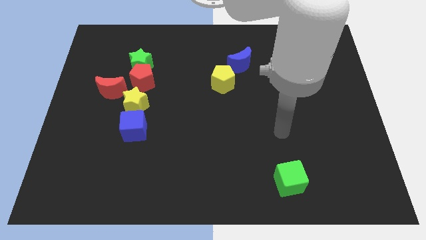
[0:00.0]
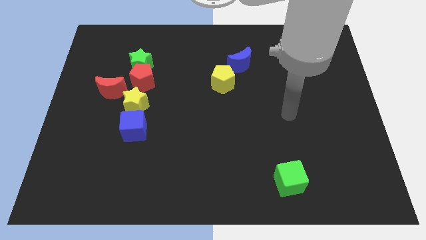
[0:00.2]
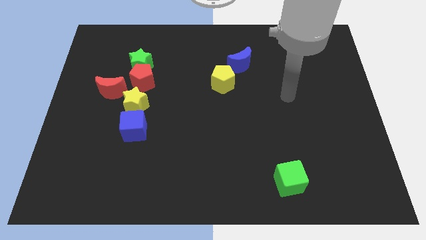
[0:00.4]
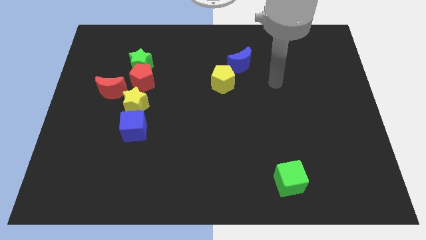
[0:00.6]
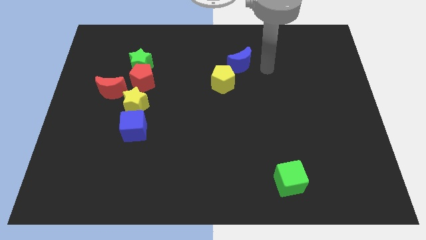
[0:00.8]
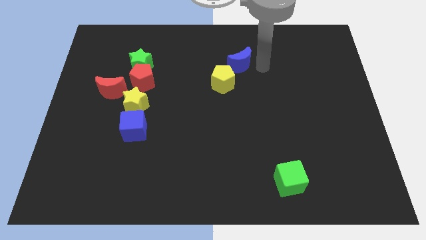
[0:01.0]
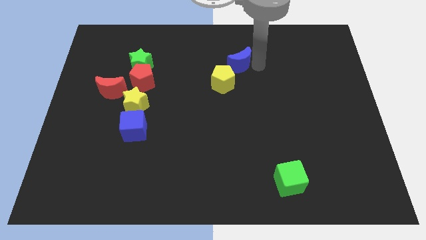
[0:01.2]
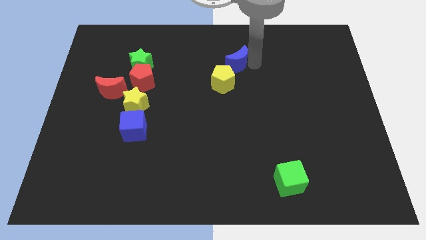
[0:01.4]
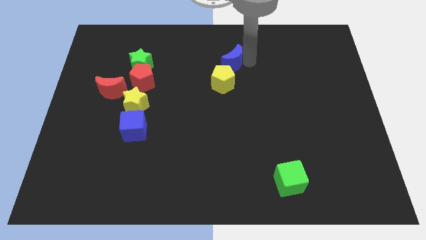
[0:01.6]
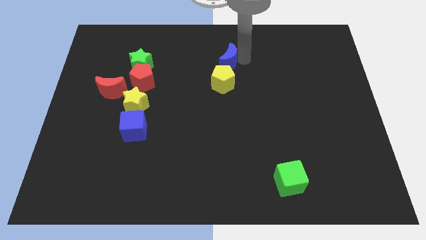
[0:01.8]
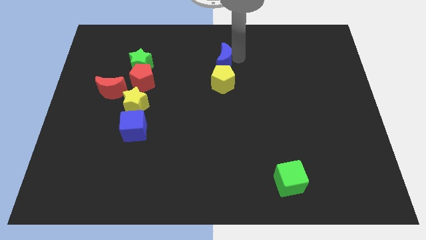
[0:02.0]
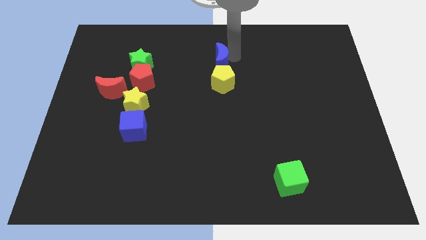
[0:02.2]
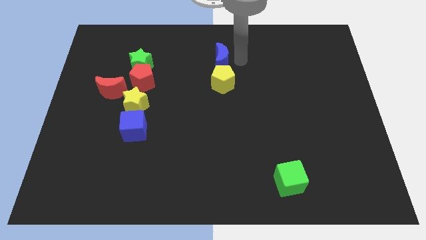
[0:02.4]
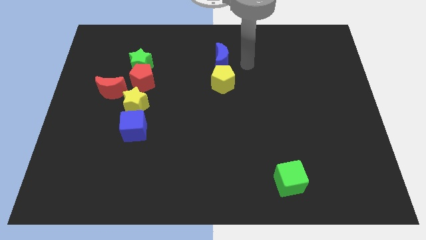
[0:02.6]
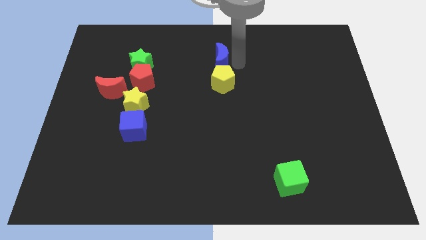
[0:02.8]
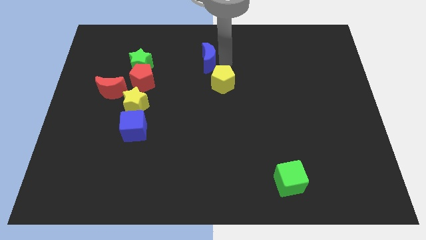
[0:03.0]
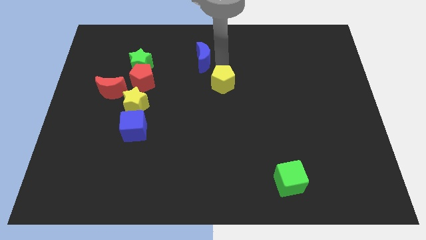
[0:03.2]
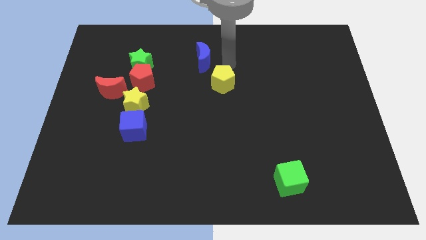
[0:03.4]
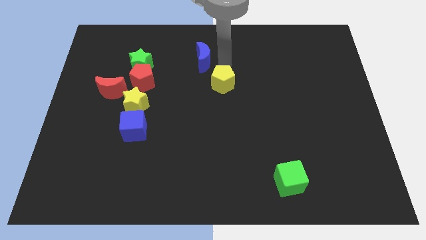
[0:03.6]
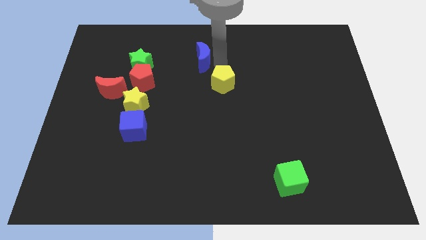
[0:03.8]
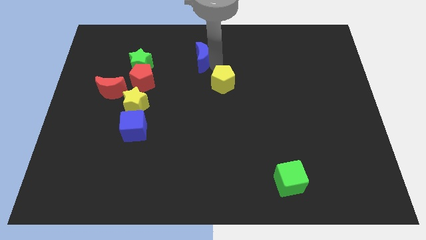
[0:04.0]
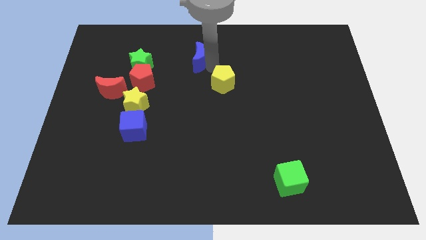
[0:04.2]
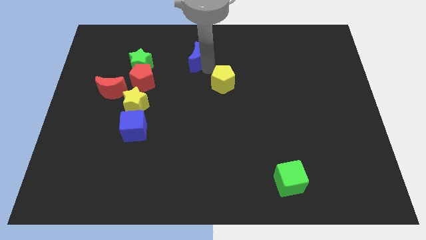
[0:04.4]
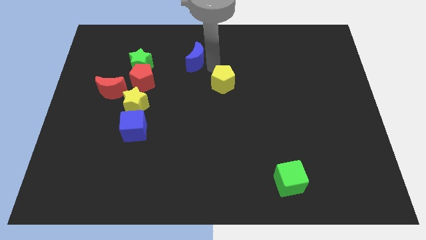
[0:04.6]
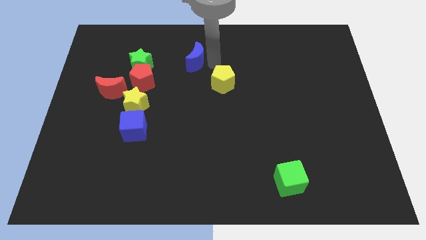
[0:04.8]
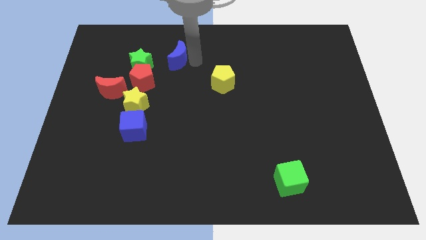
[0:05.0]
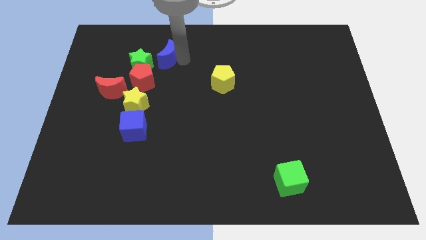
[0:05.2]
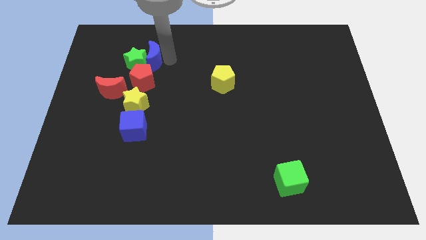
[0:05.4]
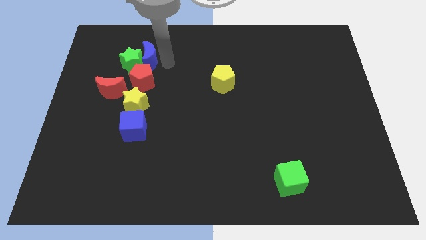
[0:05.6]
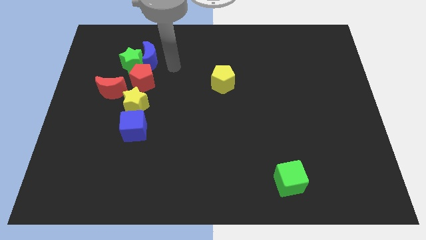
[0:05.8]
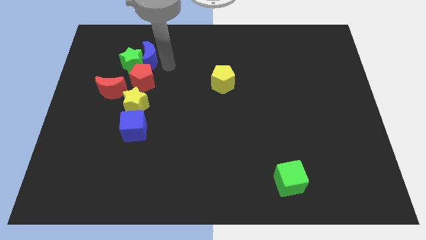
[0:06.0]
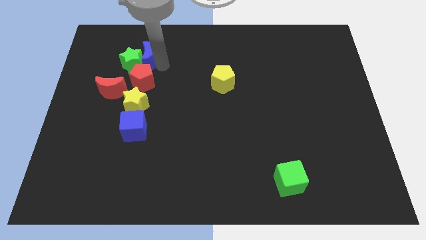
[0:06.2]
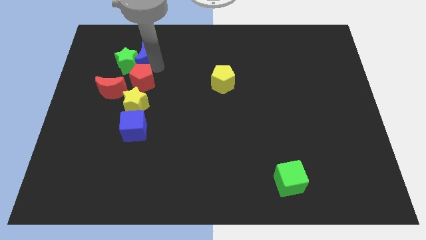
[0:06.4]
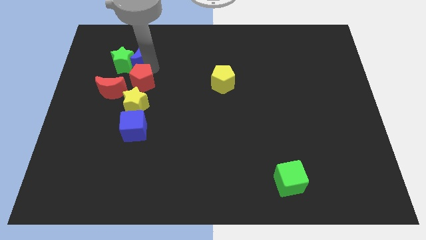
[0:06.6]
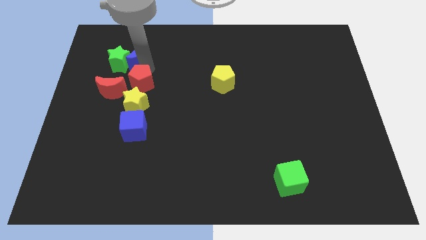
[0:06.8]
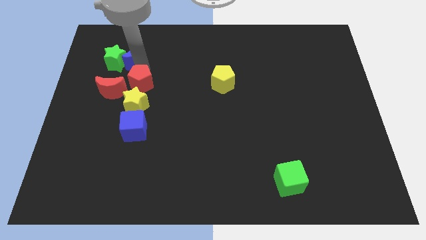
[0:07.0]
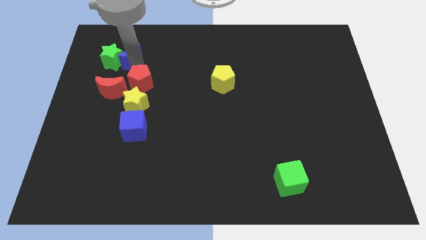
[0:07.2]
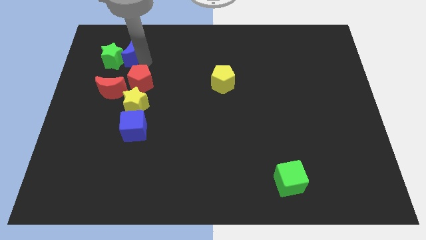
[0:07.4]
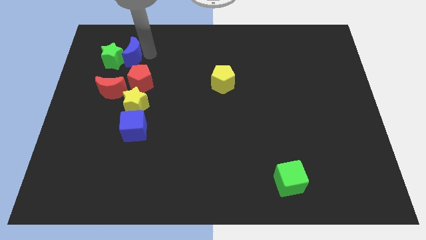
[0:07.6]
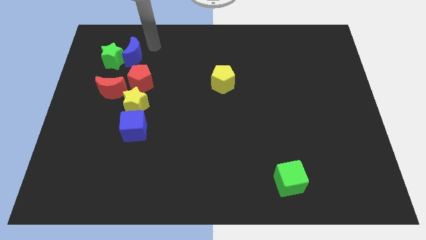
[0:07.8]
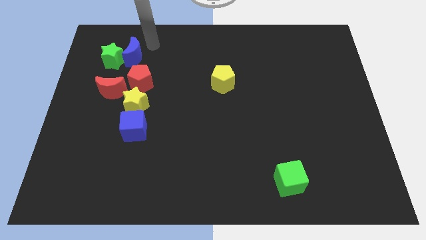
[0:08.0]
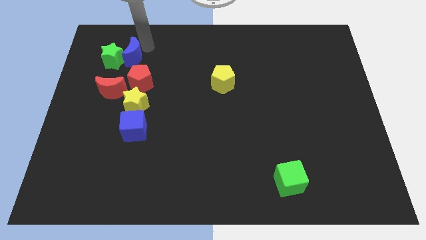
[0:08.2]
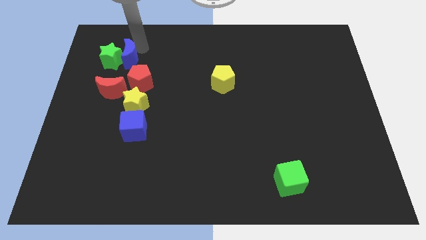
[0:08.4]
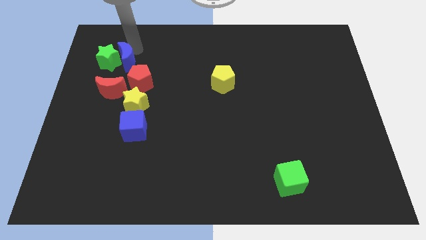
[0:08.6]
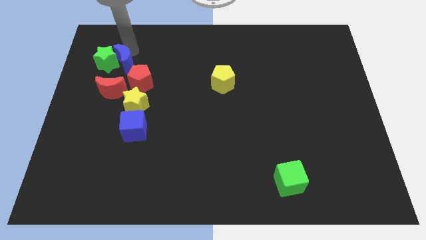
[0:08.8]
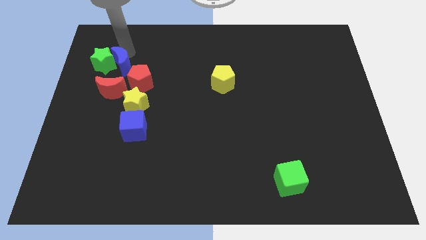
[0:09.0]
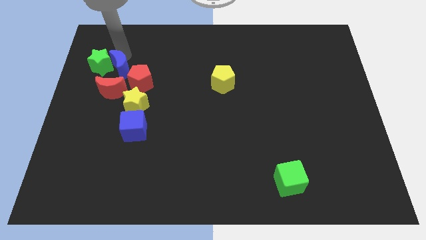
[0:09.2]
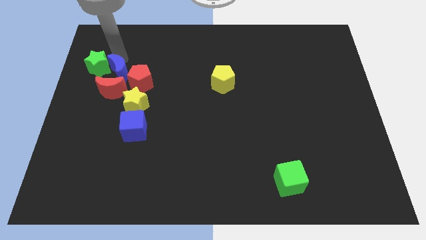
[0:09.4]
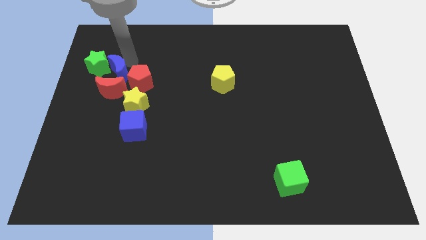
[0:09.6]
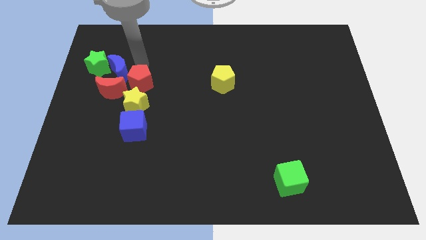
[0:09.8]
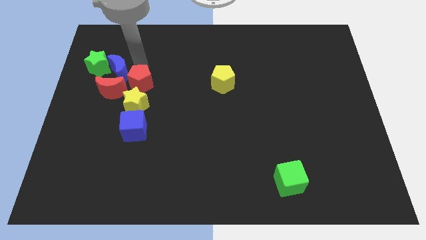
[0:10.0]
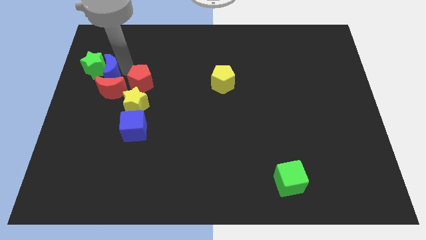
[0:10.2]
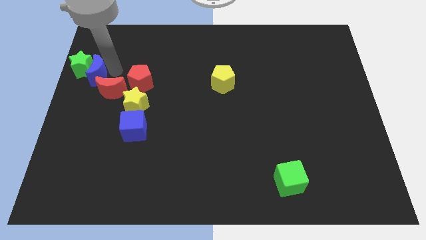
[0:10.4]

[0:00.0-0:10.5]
push the blue moon to the left side of the board

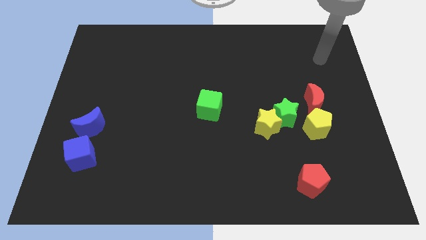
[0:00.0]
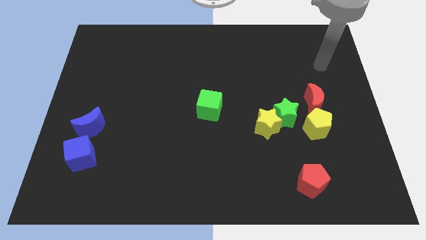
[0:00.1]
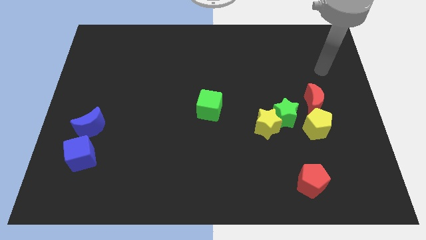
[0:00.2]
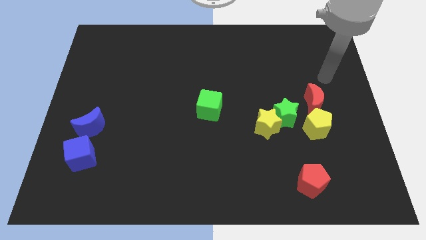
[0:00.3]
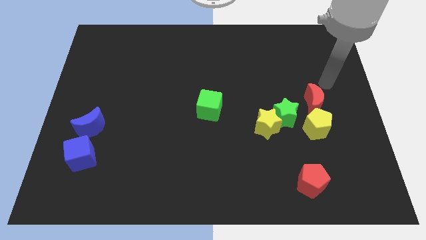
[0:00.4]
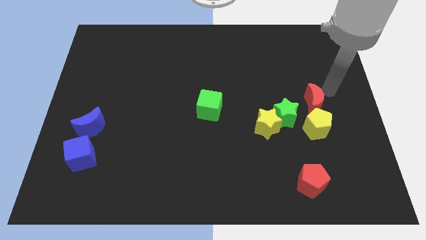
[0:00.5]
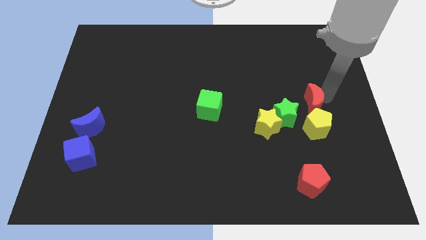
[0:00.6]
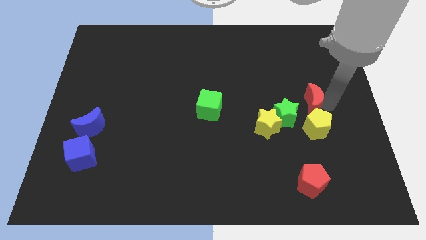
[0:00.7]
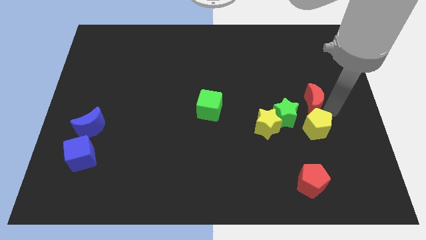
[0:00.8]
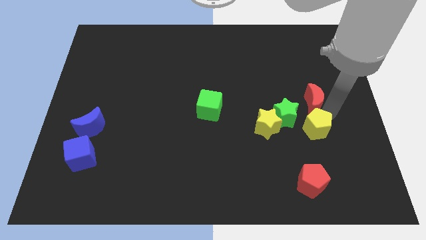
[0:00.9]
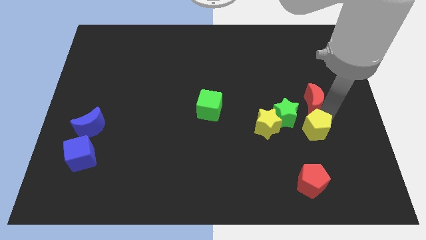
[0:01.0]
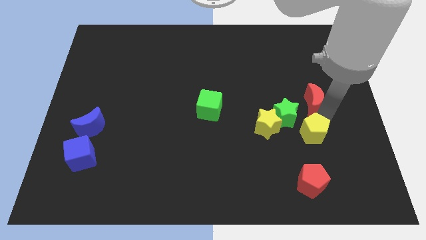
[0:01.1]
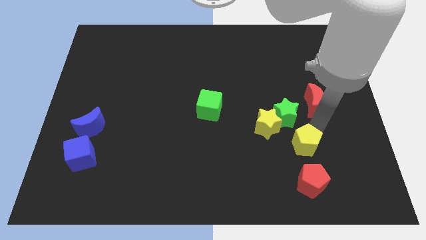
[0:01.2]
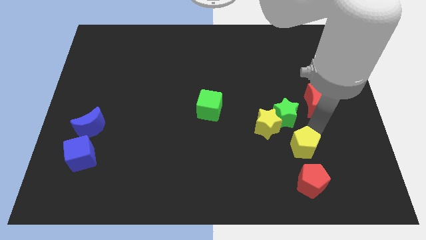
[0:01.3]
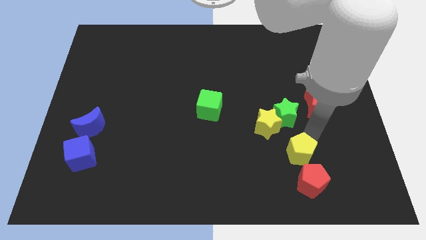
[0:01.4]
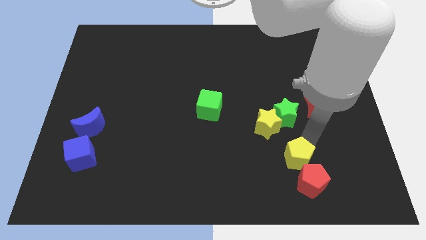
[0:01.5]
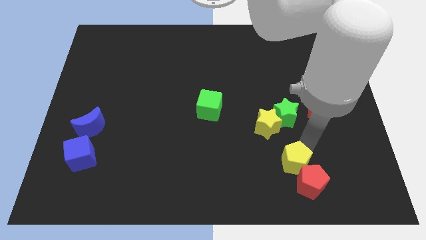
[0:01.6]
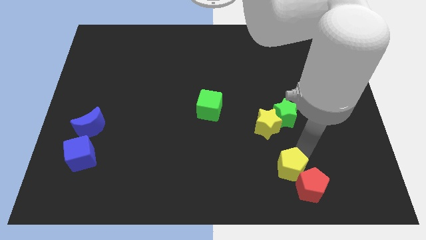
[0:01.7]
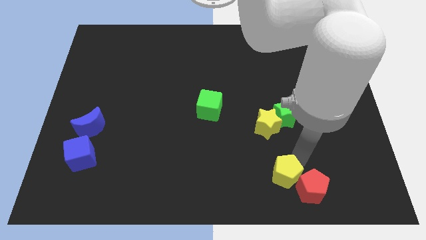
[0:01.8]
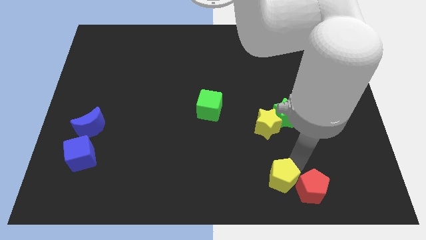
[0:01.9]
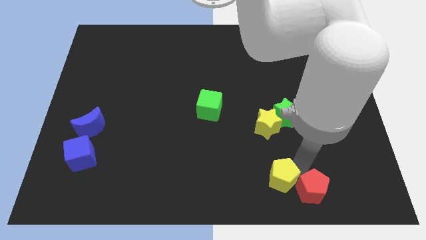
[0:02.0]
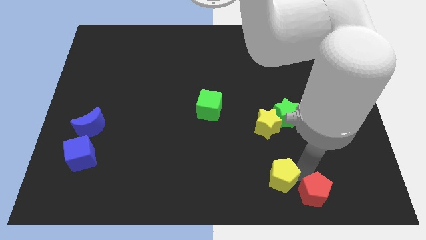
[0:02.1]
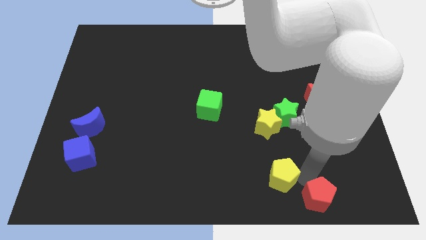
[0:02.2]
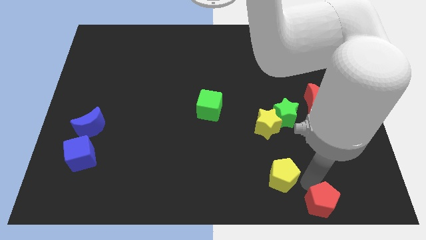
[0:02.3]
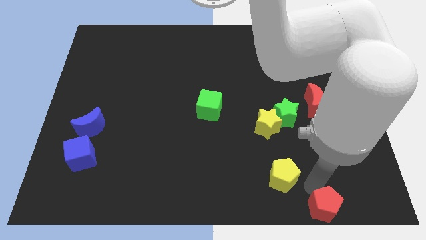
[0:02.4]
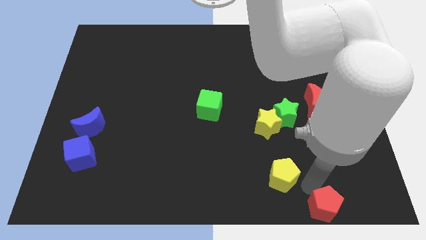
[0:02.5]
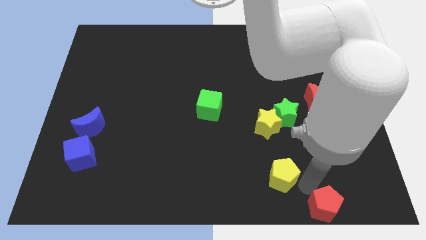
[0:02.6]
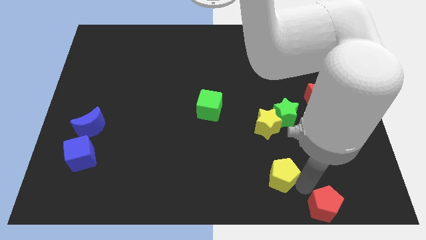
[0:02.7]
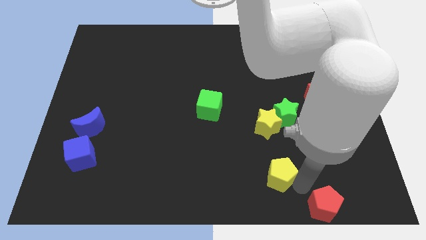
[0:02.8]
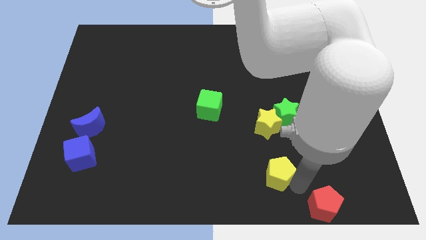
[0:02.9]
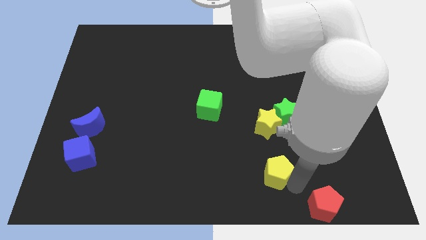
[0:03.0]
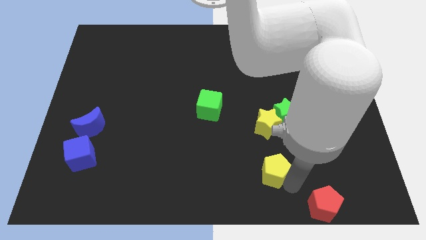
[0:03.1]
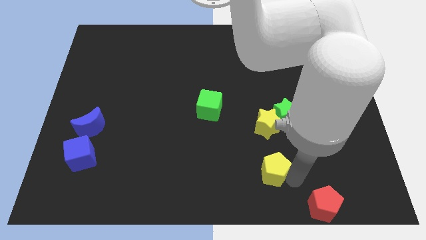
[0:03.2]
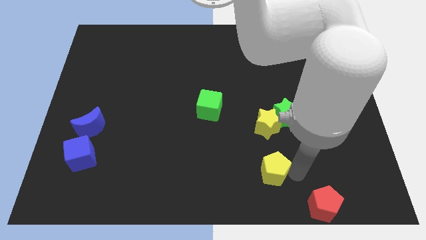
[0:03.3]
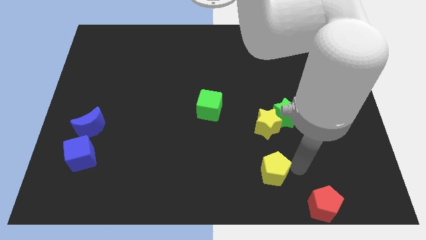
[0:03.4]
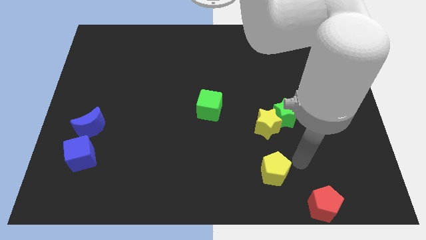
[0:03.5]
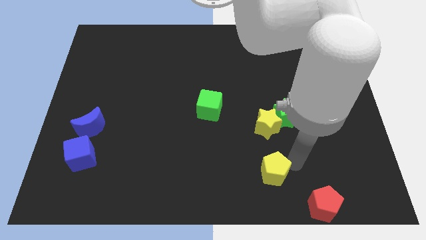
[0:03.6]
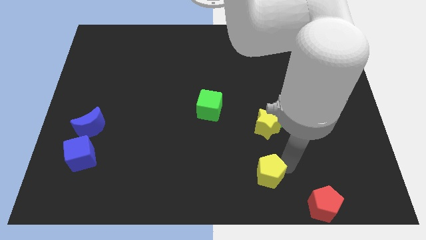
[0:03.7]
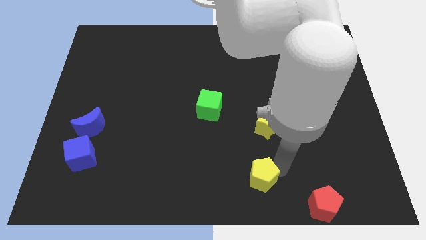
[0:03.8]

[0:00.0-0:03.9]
move the yellow pentagon to the bottom
